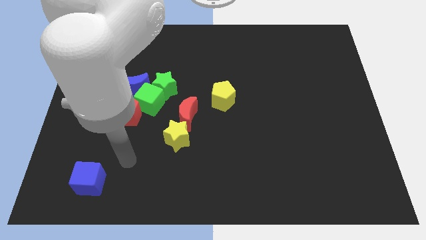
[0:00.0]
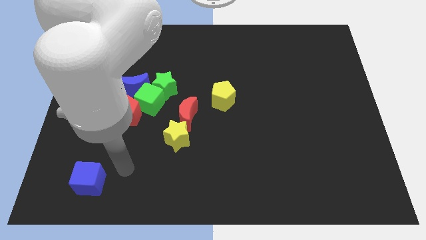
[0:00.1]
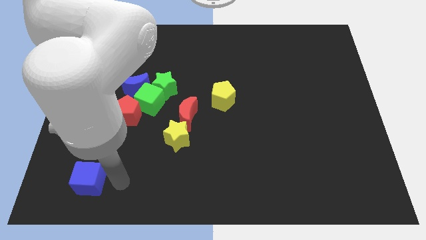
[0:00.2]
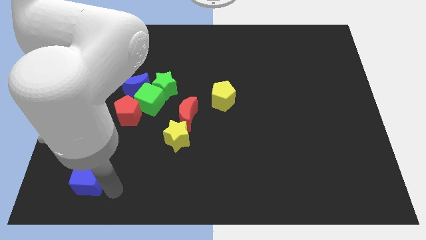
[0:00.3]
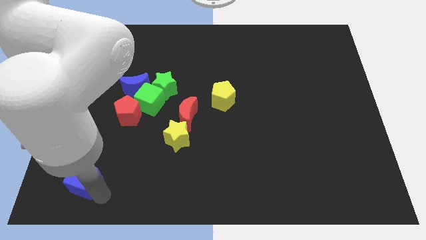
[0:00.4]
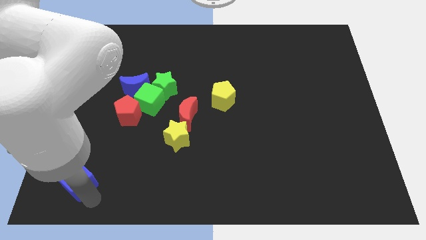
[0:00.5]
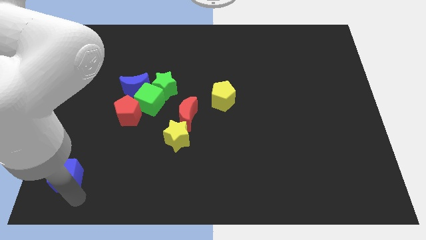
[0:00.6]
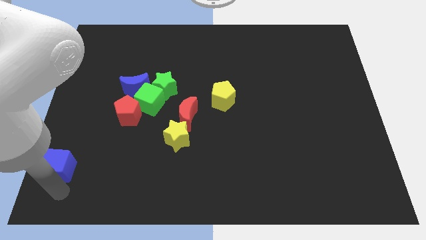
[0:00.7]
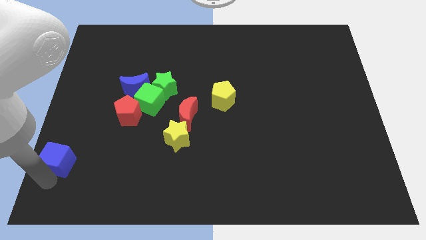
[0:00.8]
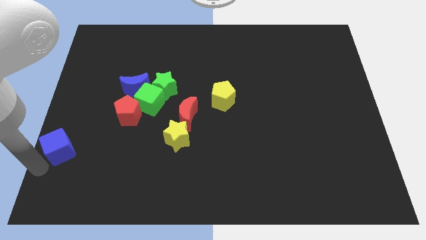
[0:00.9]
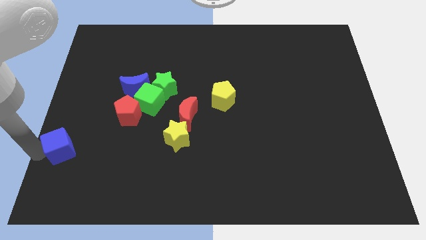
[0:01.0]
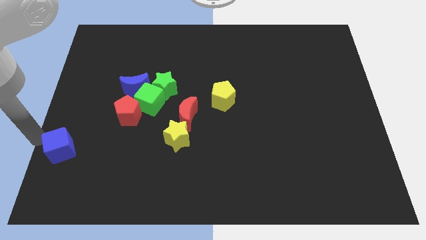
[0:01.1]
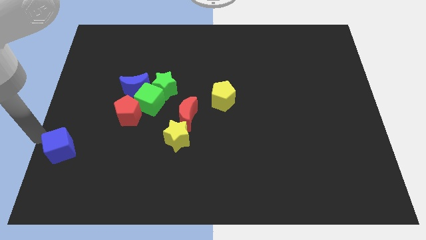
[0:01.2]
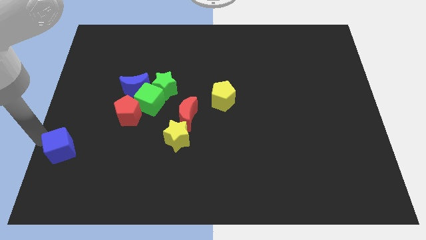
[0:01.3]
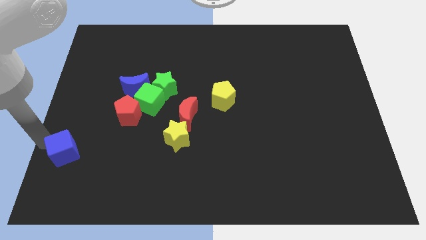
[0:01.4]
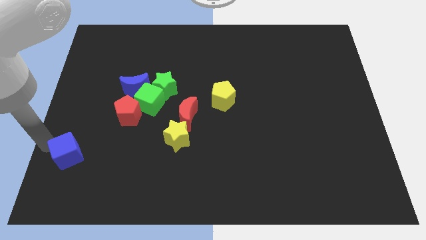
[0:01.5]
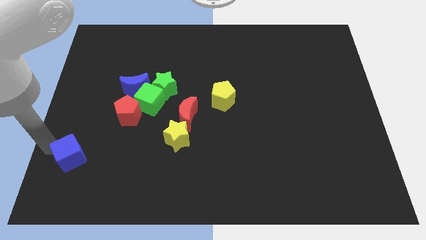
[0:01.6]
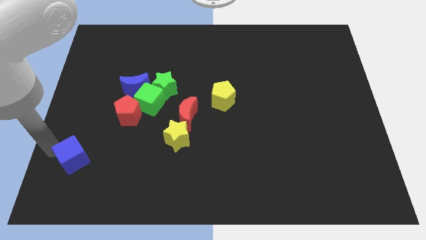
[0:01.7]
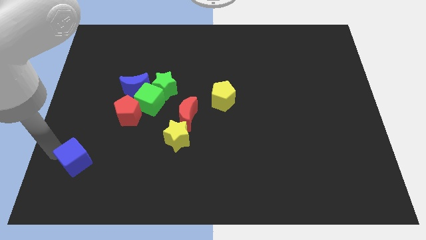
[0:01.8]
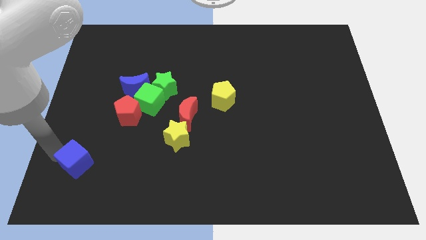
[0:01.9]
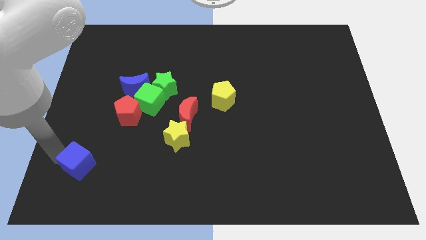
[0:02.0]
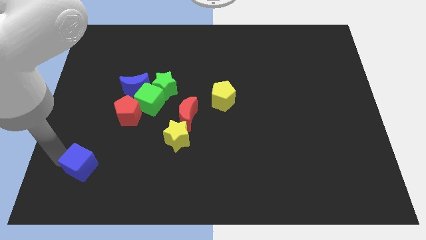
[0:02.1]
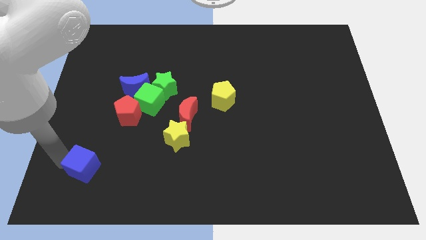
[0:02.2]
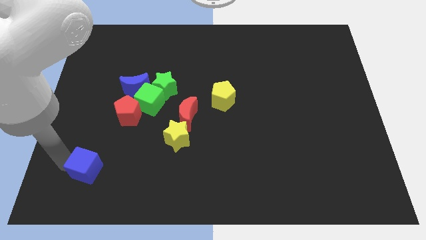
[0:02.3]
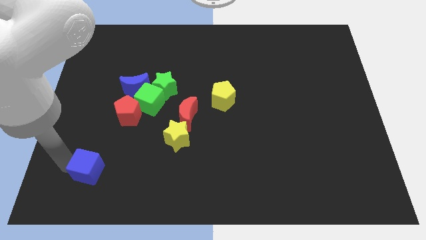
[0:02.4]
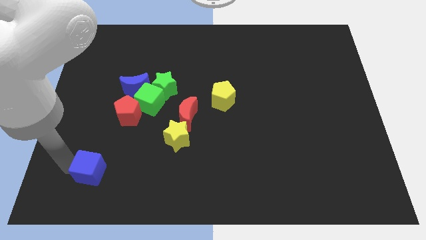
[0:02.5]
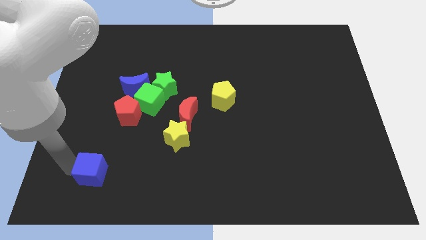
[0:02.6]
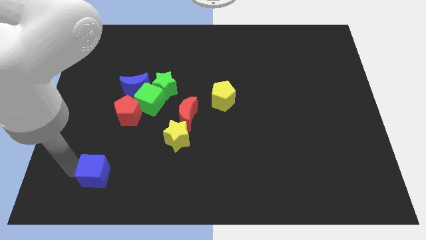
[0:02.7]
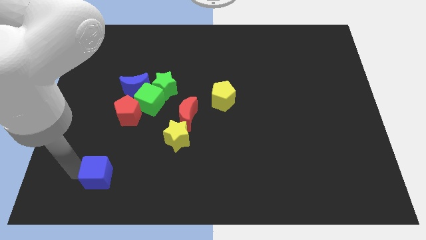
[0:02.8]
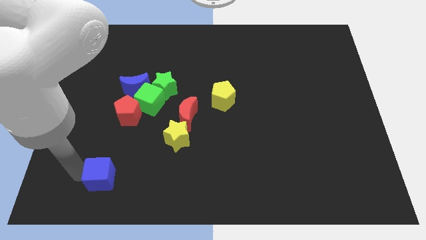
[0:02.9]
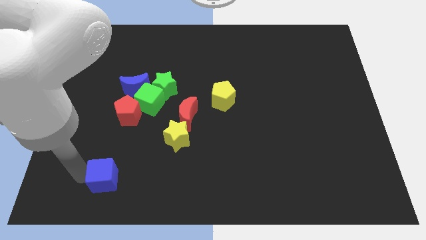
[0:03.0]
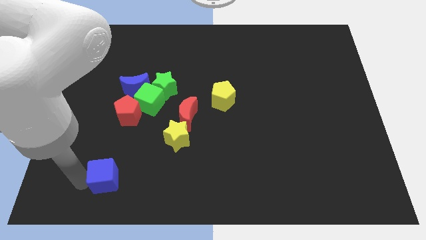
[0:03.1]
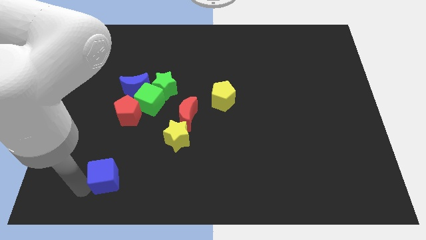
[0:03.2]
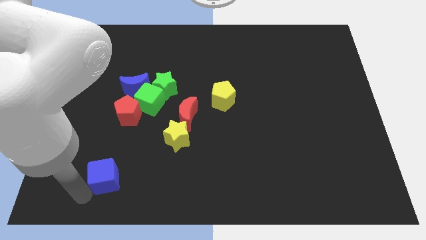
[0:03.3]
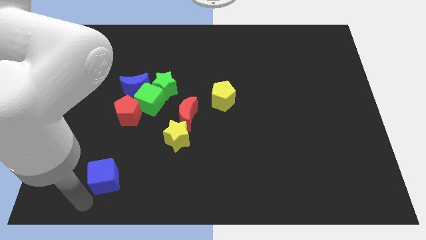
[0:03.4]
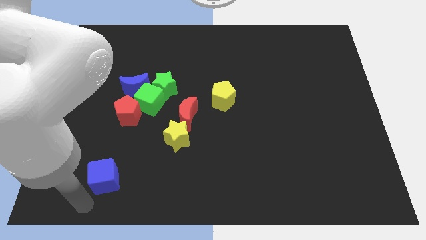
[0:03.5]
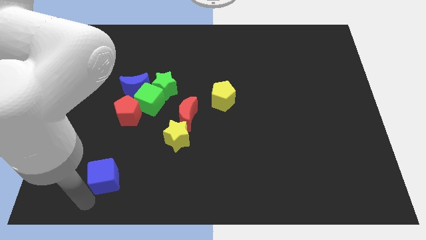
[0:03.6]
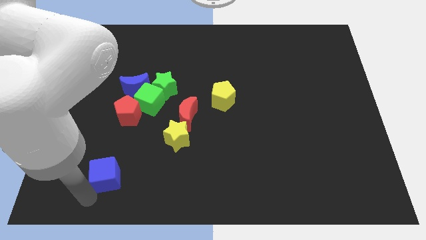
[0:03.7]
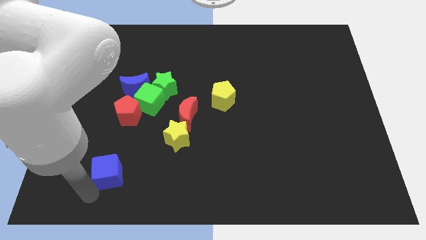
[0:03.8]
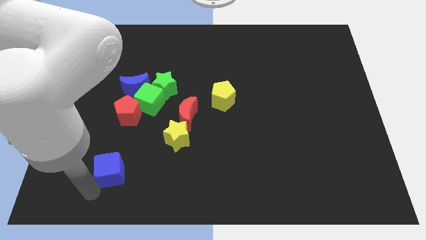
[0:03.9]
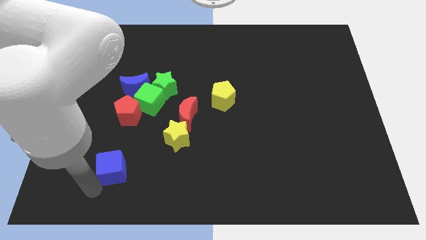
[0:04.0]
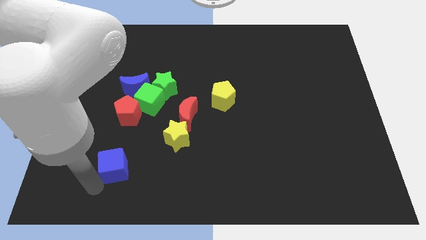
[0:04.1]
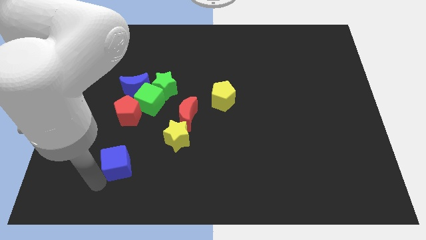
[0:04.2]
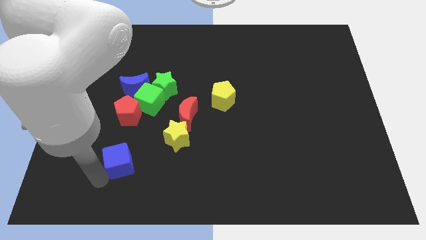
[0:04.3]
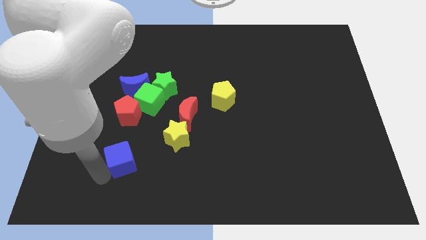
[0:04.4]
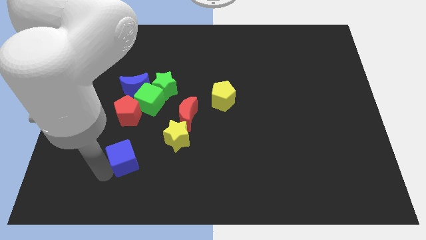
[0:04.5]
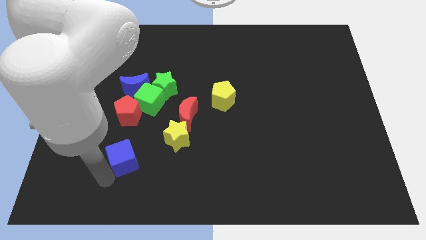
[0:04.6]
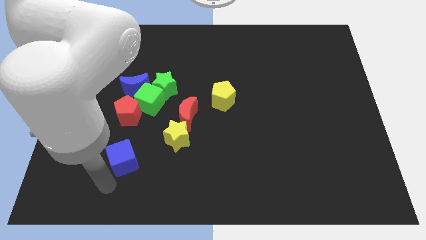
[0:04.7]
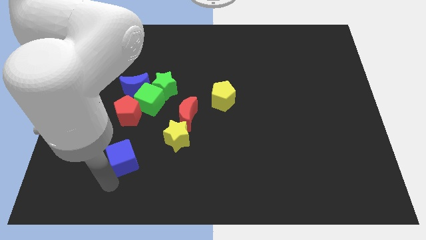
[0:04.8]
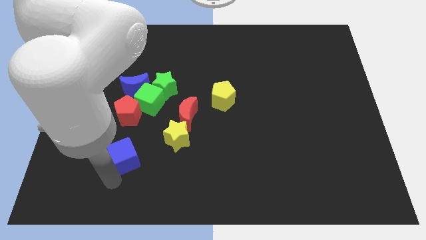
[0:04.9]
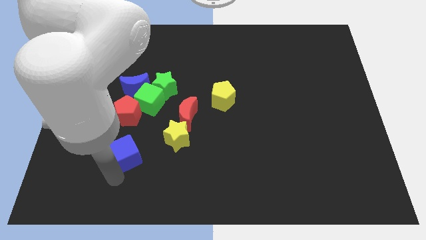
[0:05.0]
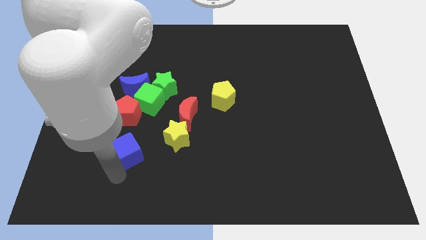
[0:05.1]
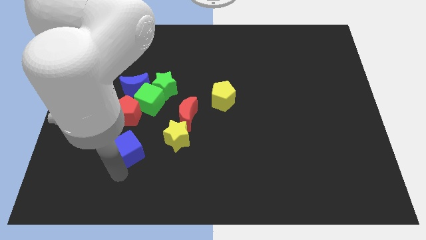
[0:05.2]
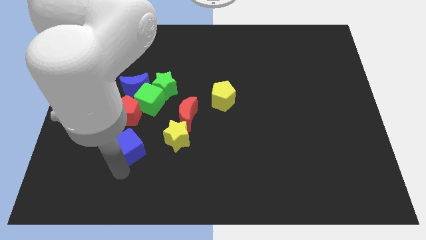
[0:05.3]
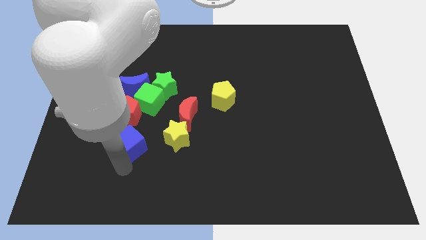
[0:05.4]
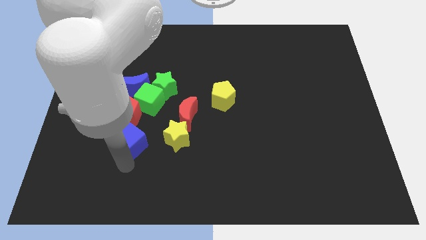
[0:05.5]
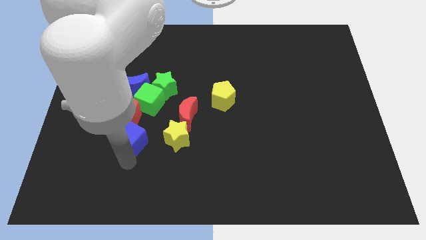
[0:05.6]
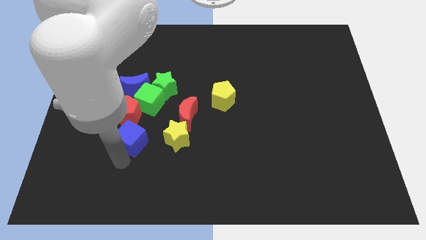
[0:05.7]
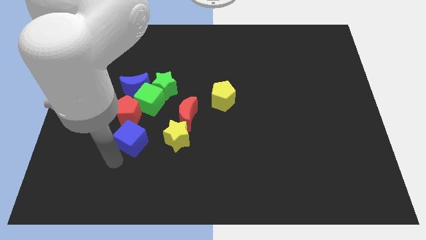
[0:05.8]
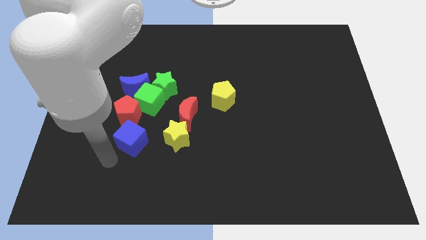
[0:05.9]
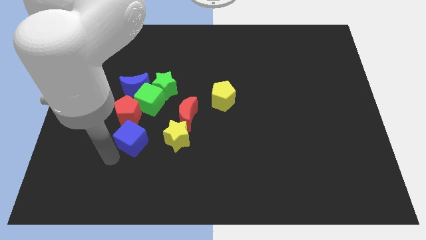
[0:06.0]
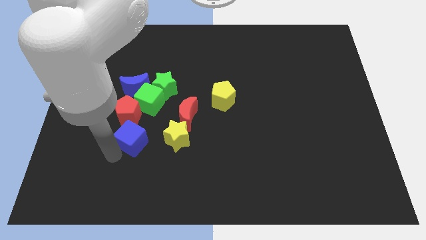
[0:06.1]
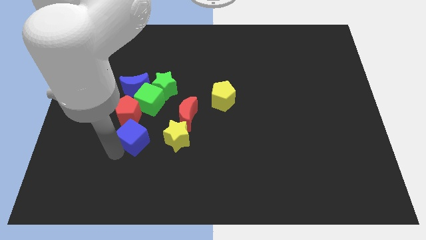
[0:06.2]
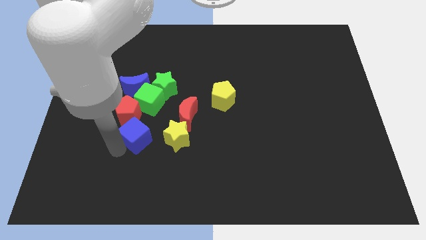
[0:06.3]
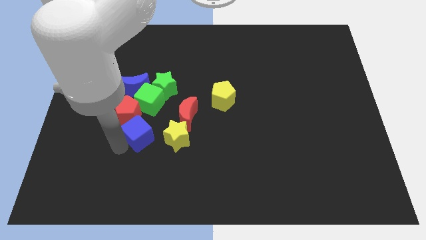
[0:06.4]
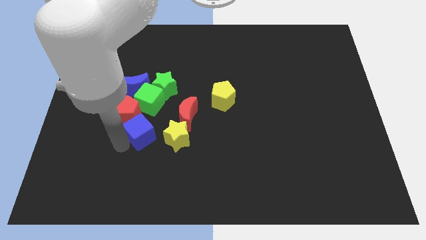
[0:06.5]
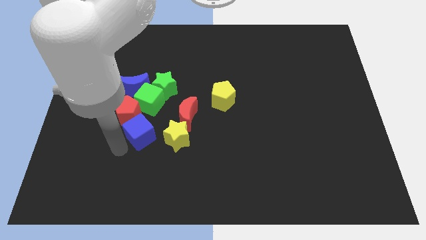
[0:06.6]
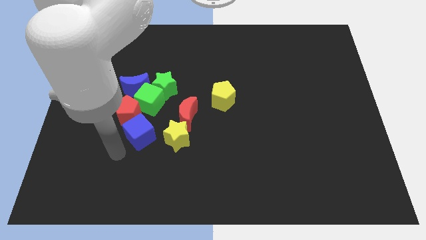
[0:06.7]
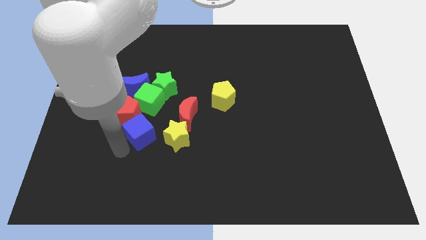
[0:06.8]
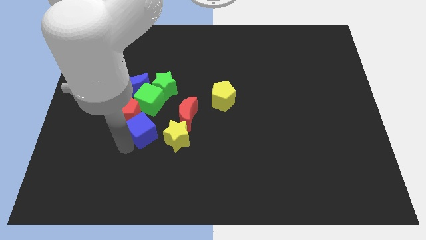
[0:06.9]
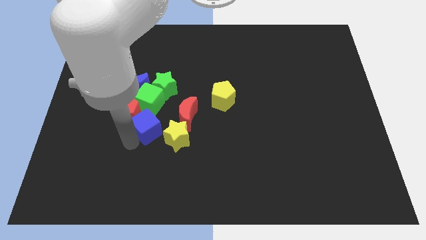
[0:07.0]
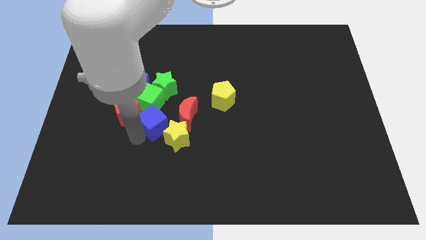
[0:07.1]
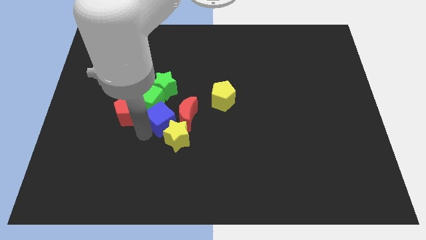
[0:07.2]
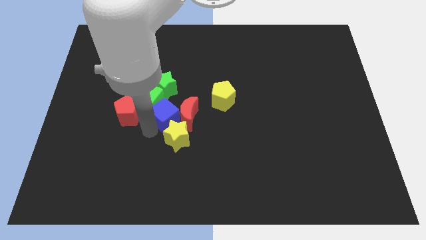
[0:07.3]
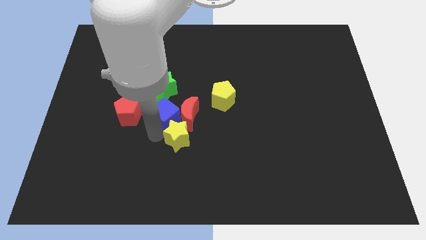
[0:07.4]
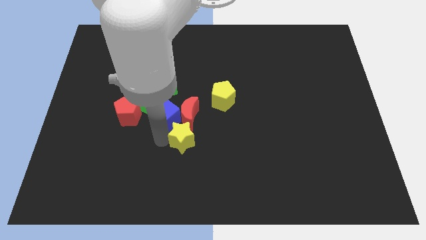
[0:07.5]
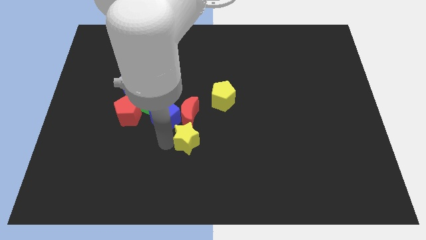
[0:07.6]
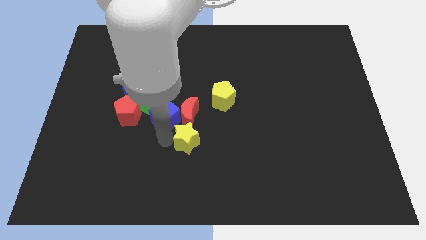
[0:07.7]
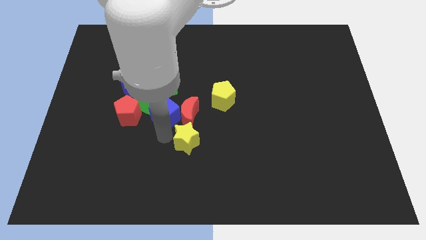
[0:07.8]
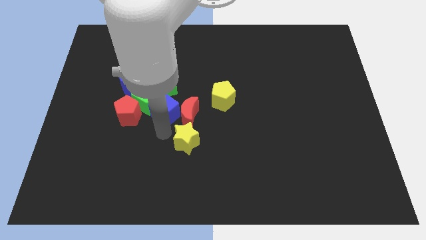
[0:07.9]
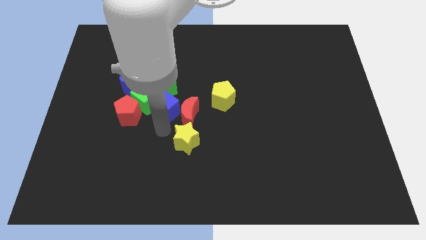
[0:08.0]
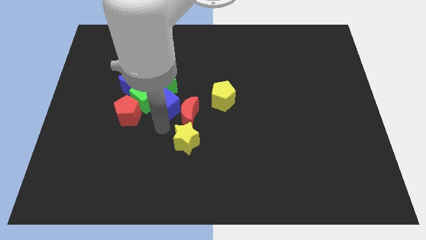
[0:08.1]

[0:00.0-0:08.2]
move the blue cube to the green star
